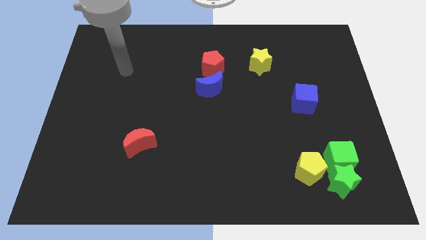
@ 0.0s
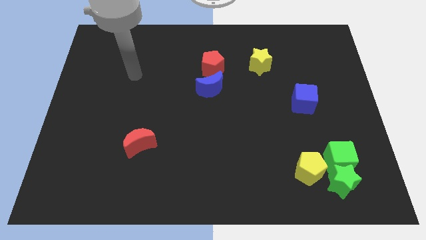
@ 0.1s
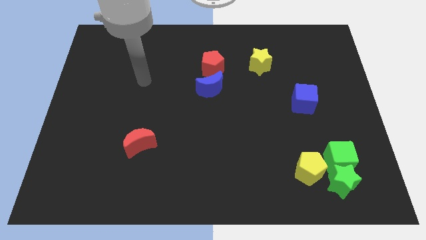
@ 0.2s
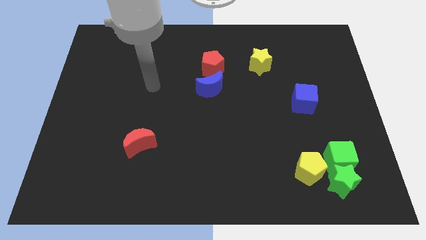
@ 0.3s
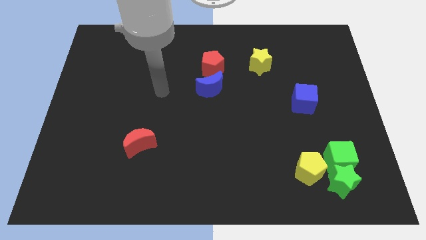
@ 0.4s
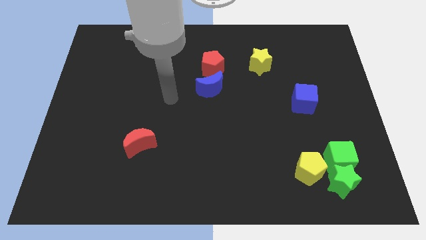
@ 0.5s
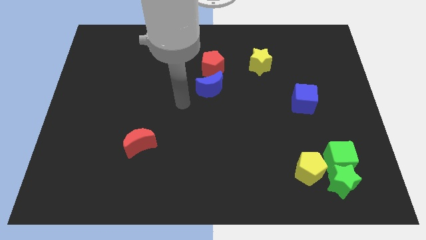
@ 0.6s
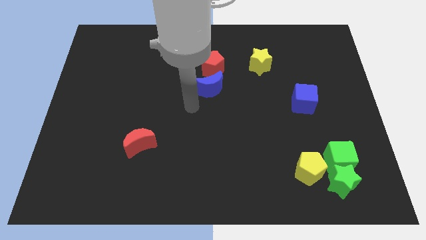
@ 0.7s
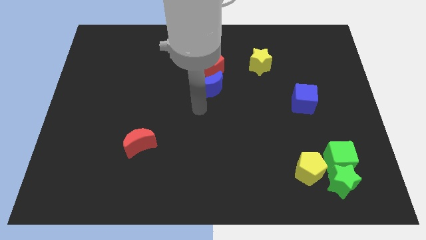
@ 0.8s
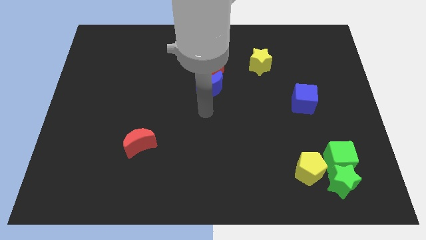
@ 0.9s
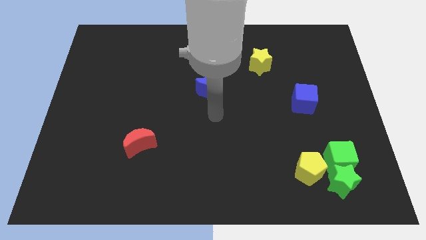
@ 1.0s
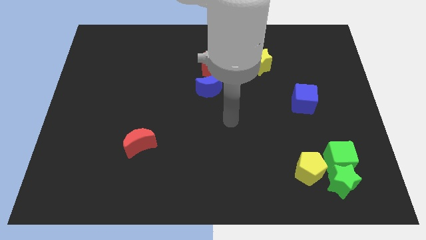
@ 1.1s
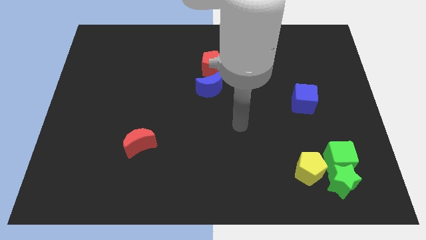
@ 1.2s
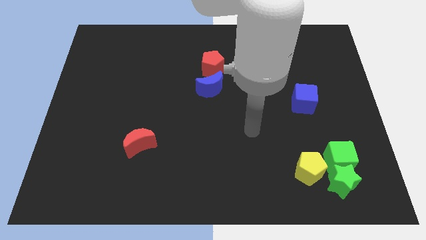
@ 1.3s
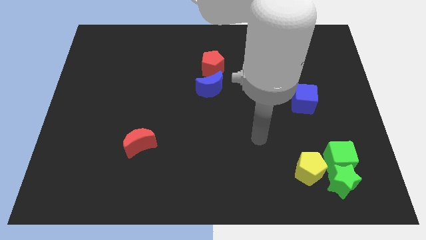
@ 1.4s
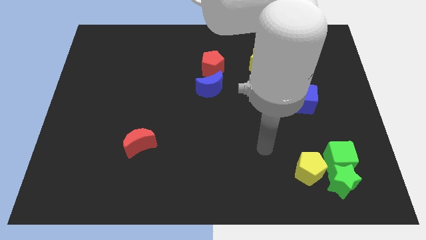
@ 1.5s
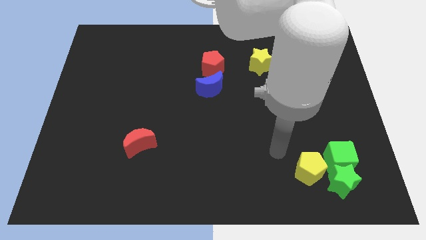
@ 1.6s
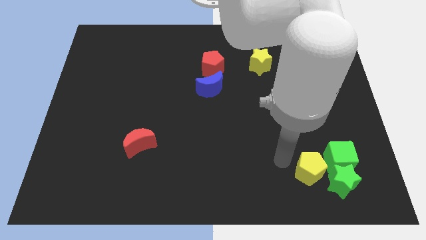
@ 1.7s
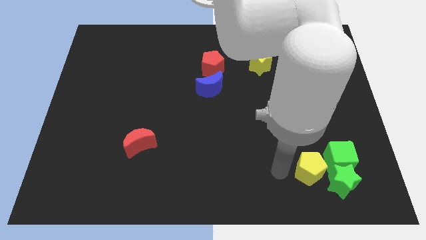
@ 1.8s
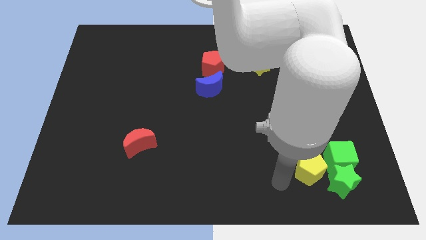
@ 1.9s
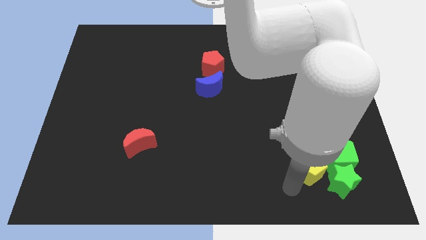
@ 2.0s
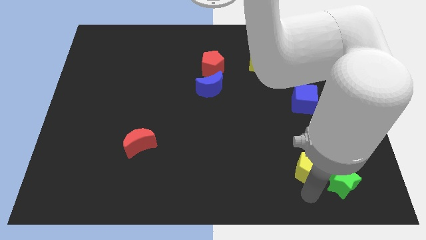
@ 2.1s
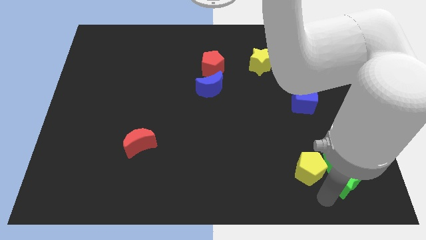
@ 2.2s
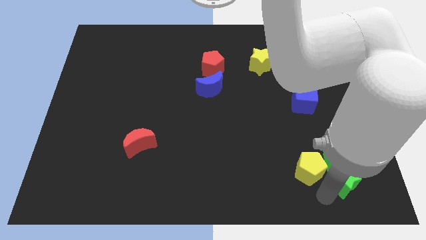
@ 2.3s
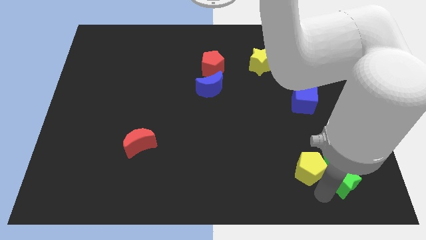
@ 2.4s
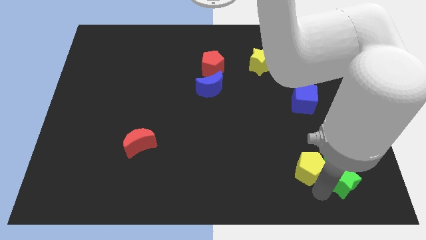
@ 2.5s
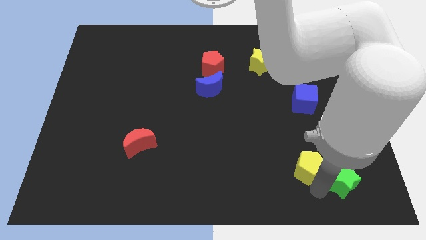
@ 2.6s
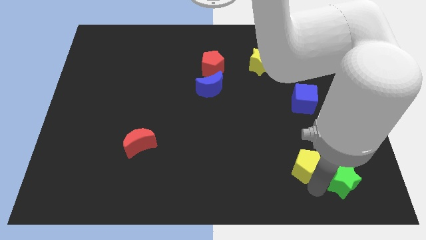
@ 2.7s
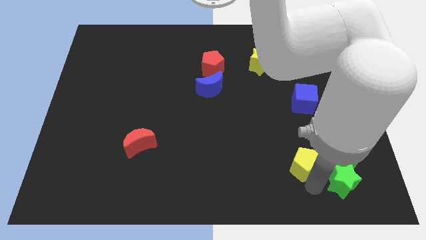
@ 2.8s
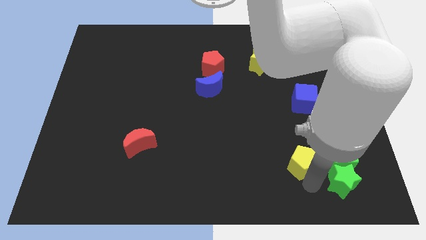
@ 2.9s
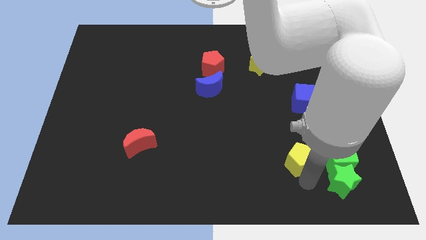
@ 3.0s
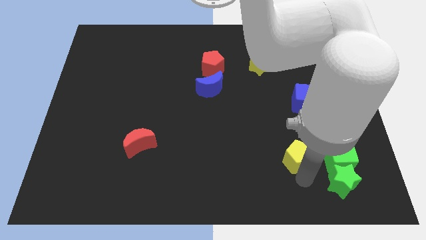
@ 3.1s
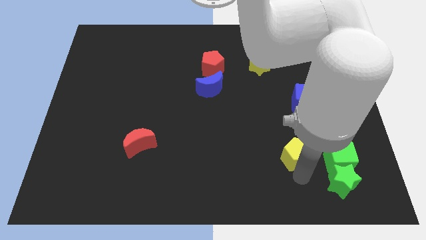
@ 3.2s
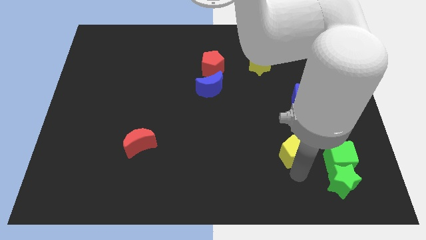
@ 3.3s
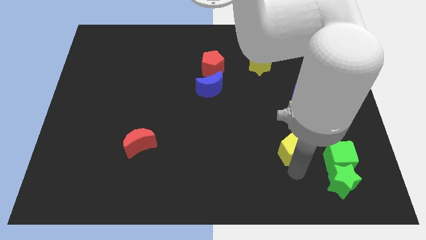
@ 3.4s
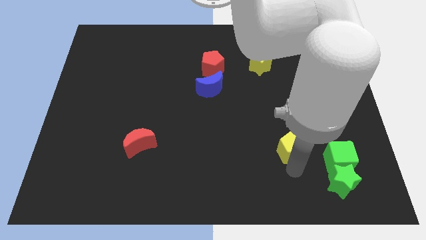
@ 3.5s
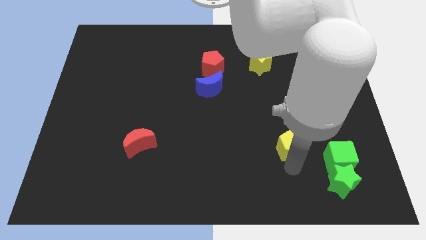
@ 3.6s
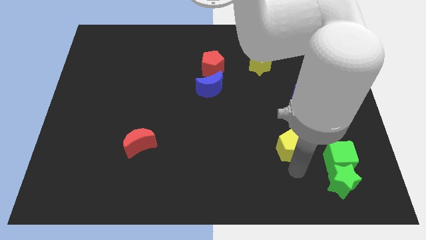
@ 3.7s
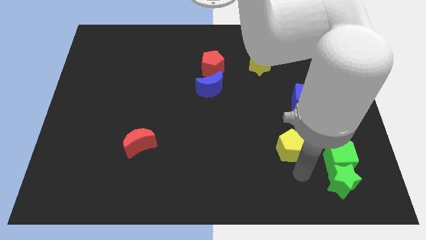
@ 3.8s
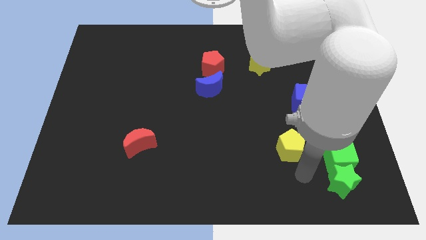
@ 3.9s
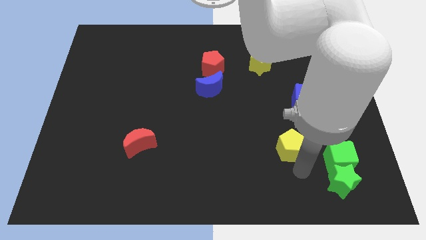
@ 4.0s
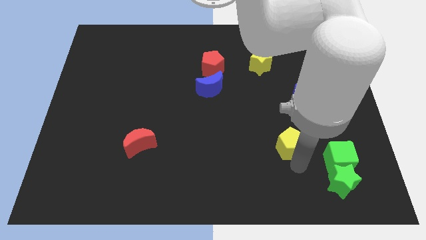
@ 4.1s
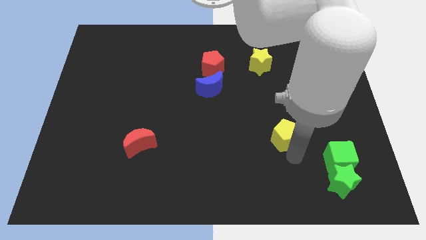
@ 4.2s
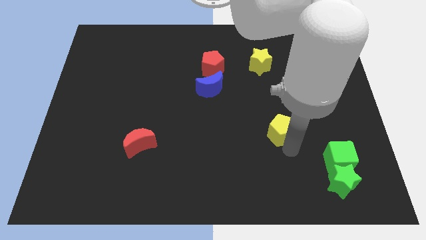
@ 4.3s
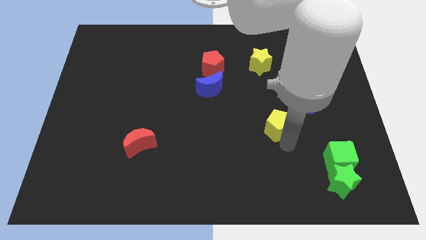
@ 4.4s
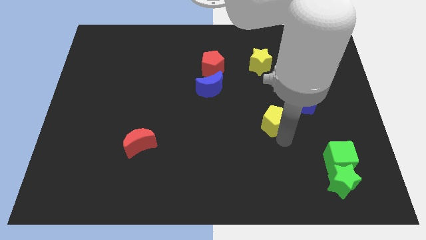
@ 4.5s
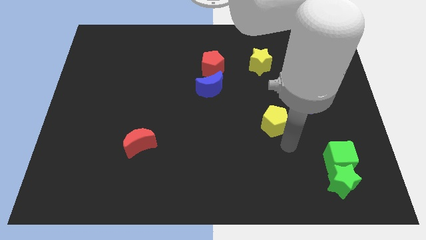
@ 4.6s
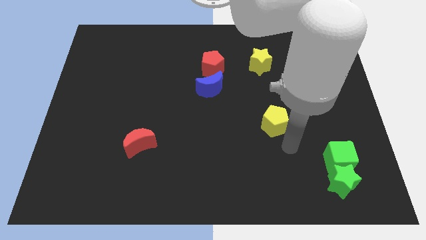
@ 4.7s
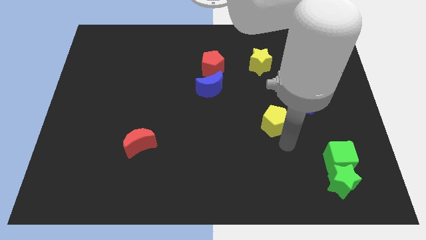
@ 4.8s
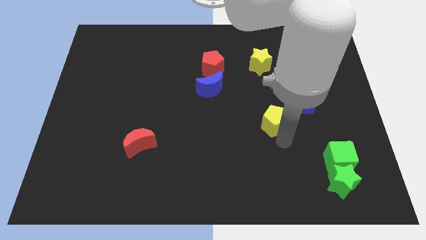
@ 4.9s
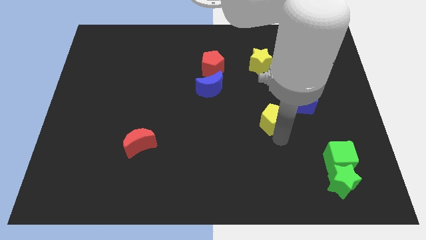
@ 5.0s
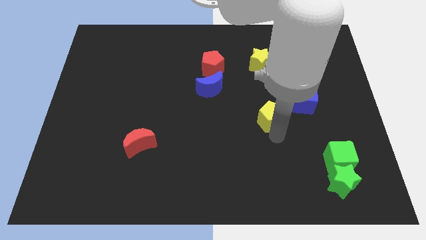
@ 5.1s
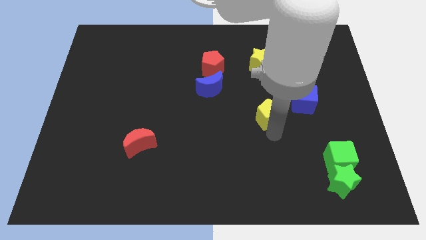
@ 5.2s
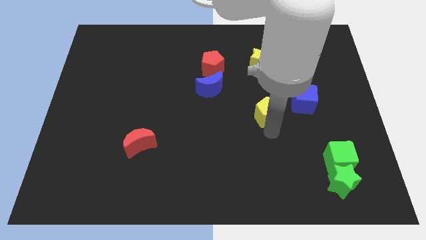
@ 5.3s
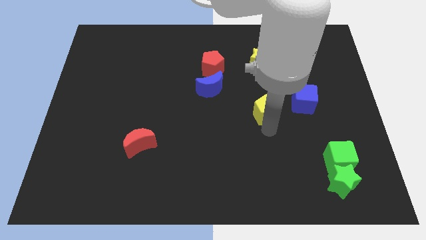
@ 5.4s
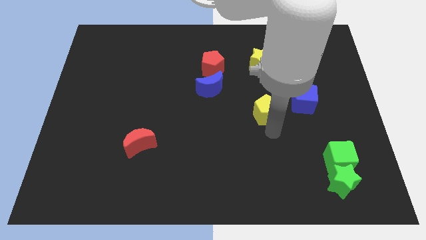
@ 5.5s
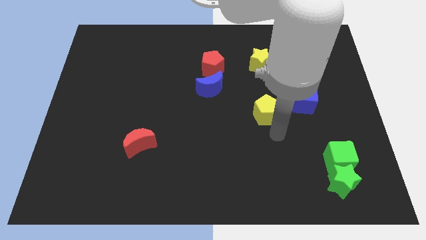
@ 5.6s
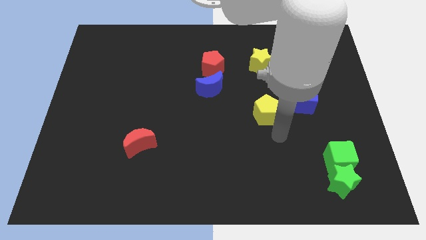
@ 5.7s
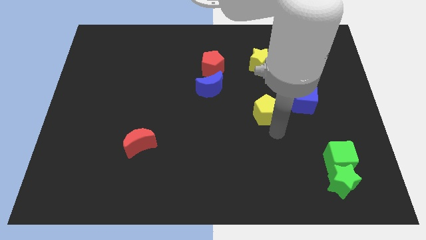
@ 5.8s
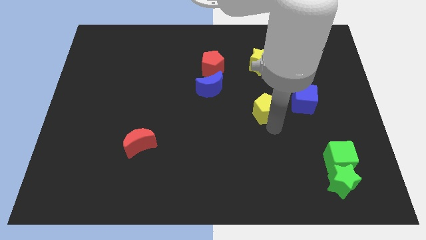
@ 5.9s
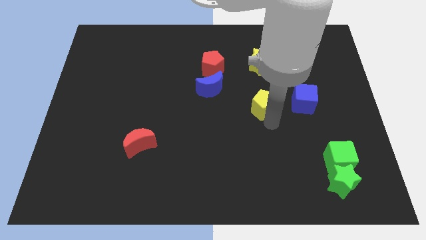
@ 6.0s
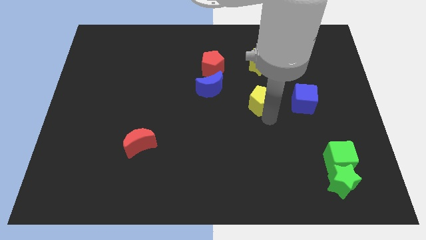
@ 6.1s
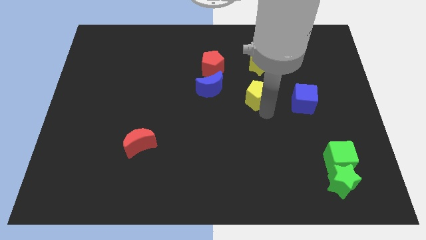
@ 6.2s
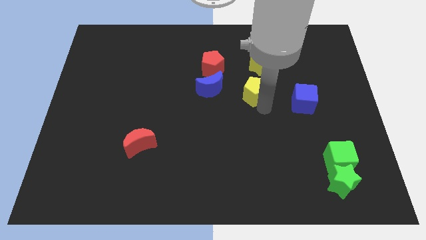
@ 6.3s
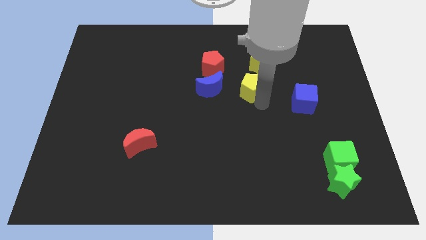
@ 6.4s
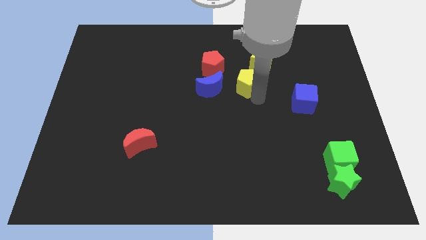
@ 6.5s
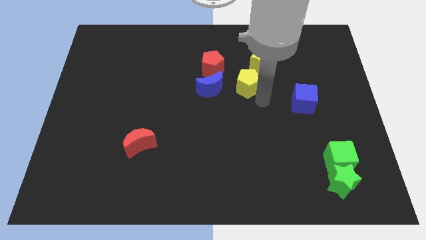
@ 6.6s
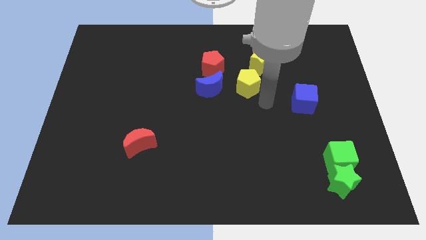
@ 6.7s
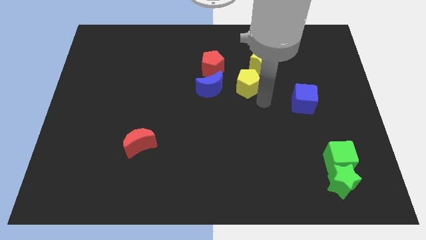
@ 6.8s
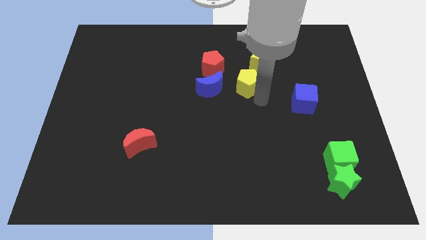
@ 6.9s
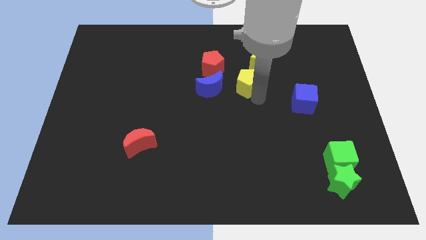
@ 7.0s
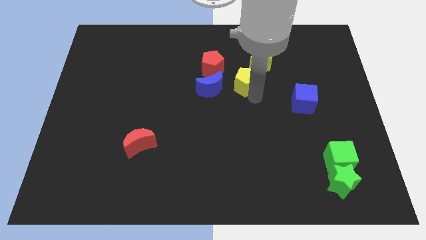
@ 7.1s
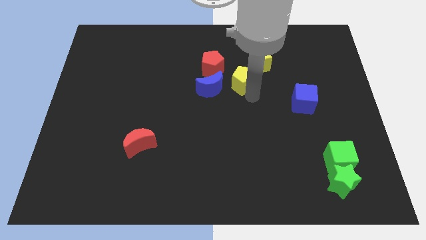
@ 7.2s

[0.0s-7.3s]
slide the yellow pentagon to the top right side of the blue moon
